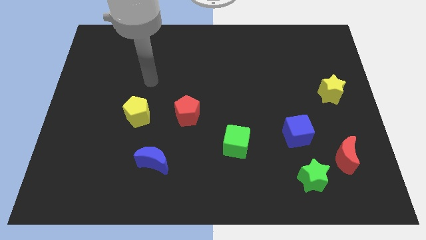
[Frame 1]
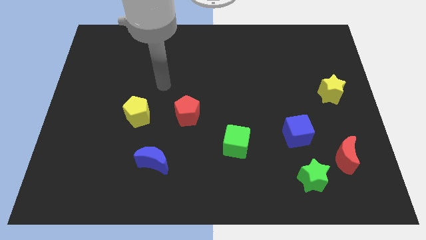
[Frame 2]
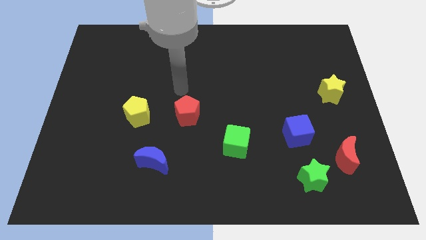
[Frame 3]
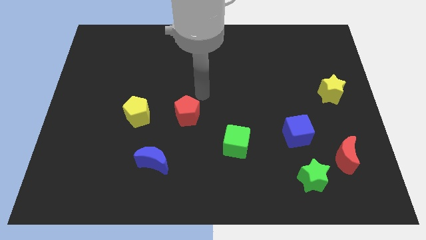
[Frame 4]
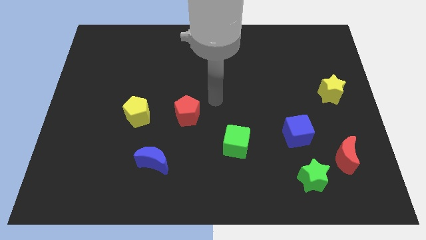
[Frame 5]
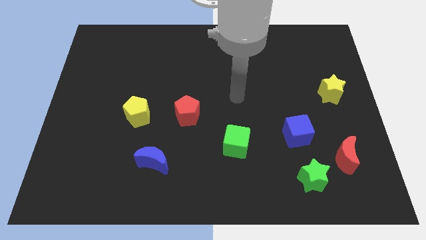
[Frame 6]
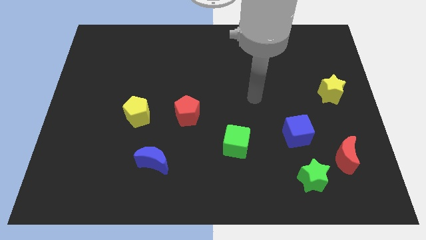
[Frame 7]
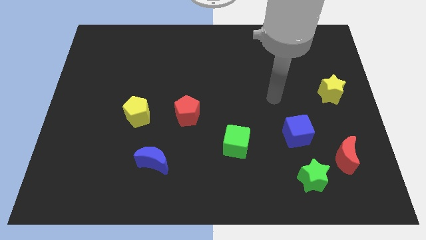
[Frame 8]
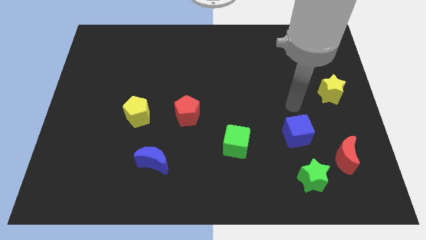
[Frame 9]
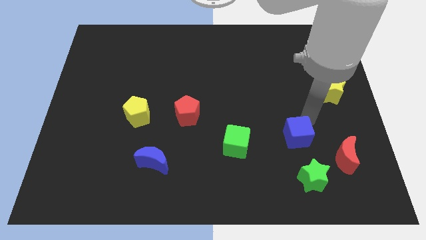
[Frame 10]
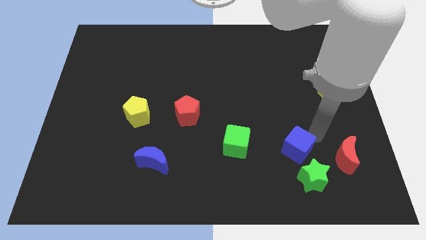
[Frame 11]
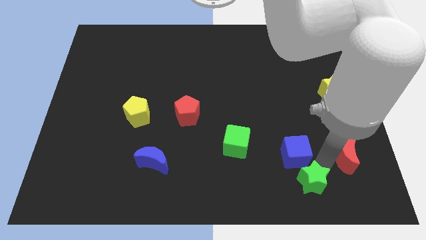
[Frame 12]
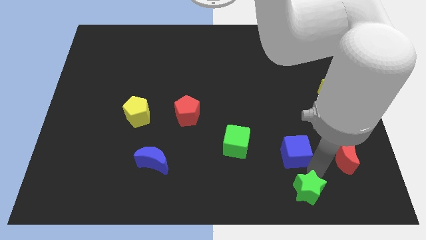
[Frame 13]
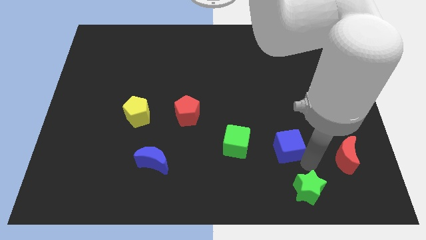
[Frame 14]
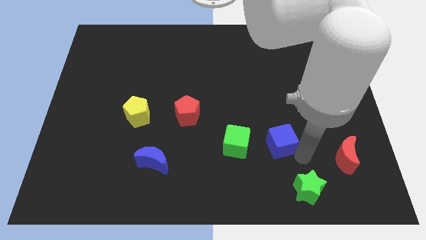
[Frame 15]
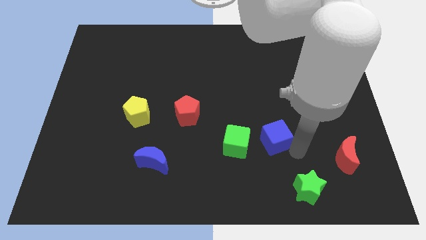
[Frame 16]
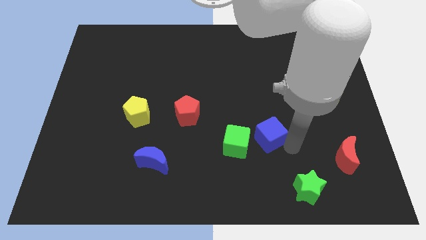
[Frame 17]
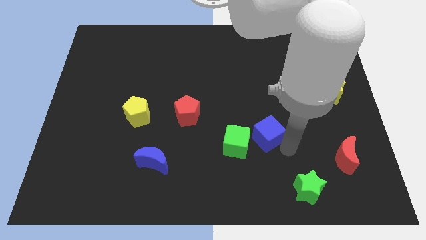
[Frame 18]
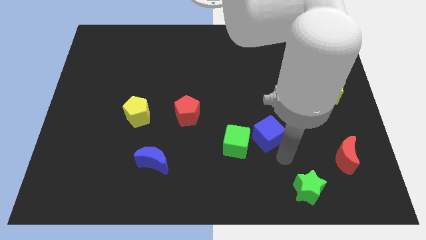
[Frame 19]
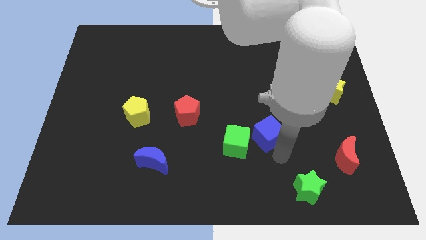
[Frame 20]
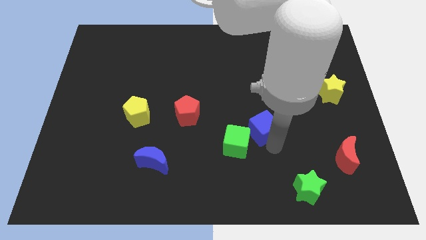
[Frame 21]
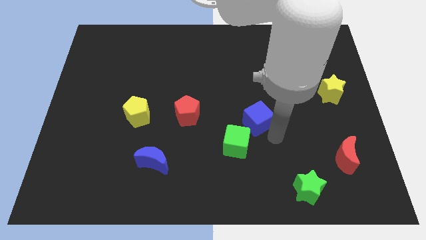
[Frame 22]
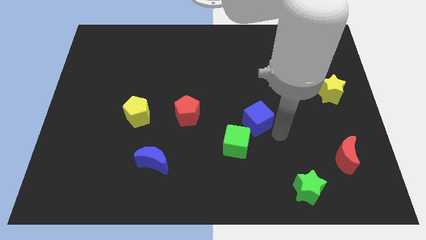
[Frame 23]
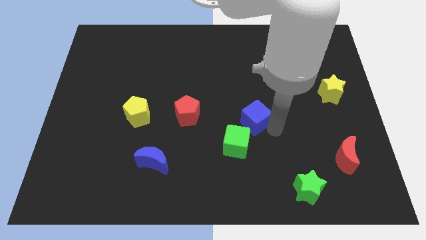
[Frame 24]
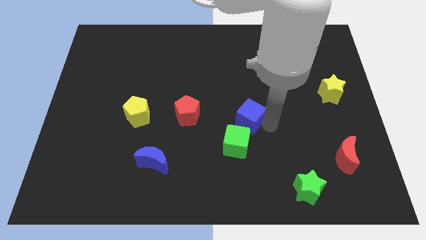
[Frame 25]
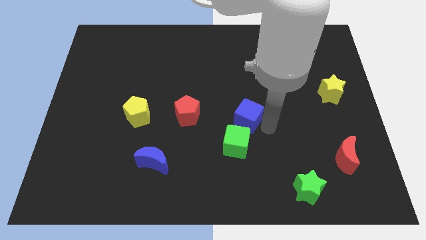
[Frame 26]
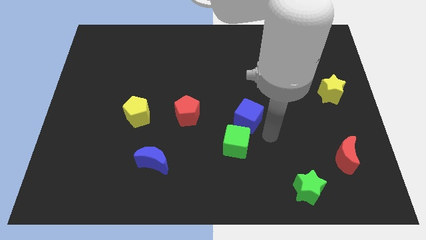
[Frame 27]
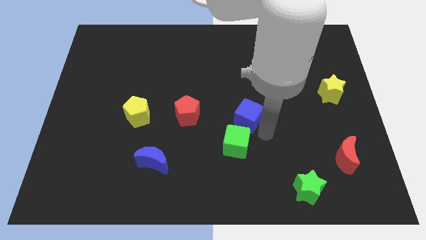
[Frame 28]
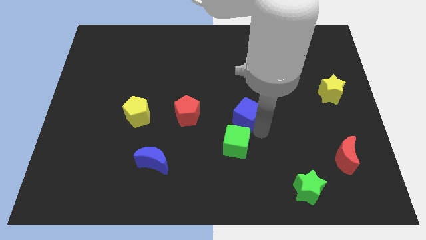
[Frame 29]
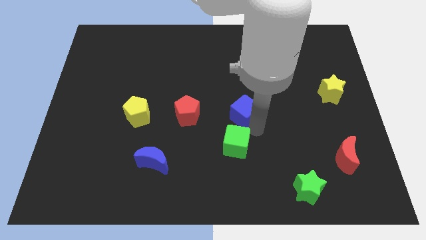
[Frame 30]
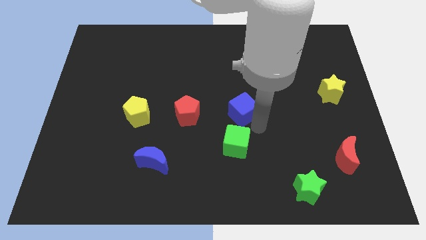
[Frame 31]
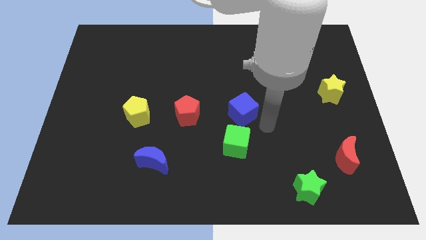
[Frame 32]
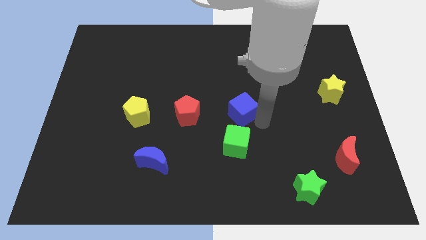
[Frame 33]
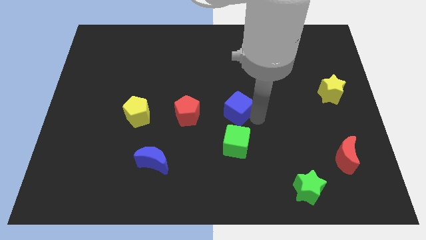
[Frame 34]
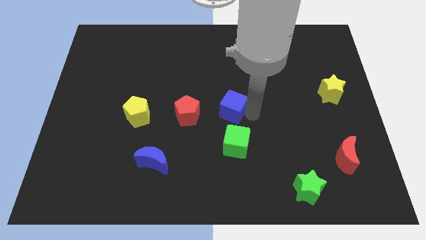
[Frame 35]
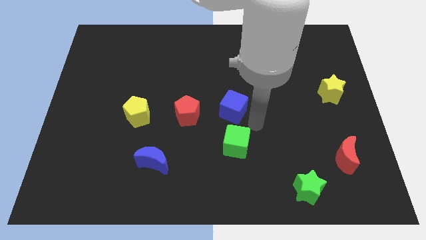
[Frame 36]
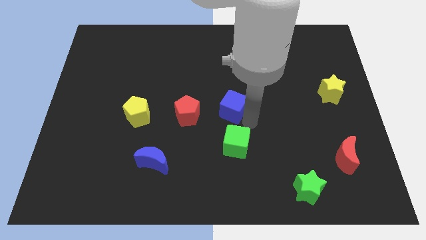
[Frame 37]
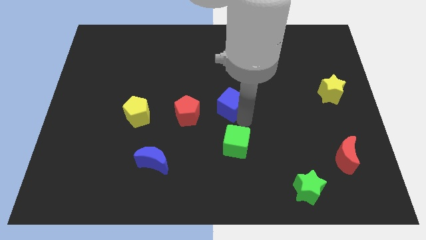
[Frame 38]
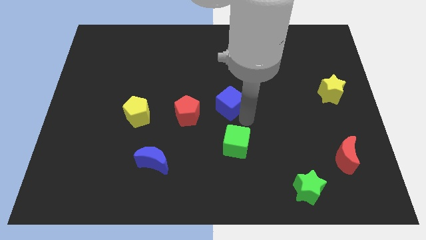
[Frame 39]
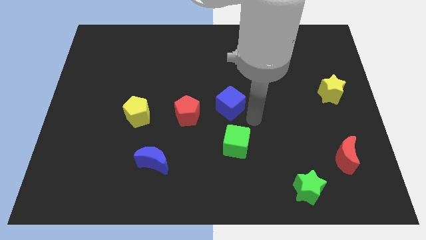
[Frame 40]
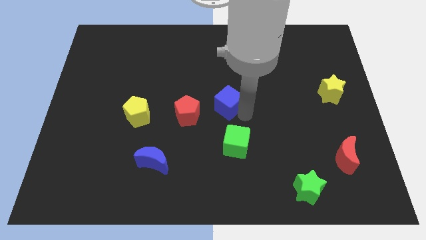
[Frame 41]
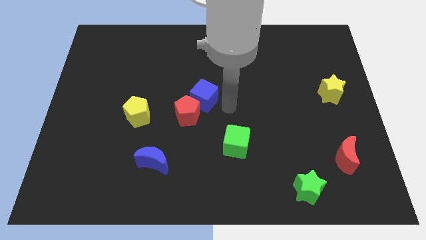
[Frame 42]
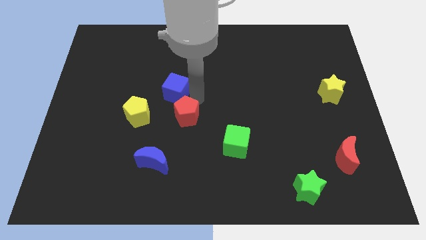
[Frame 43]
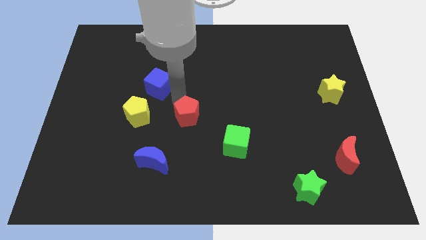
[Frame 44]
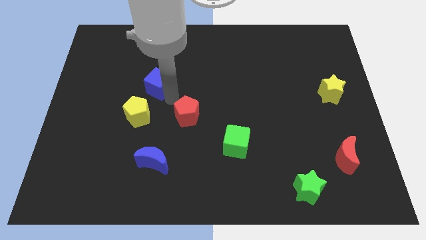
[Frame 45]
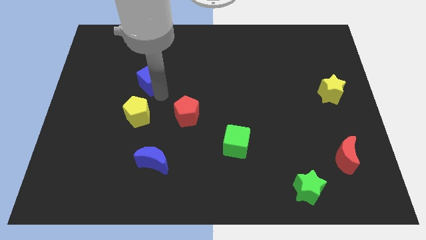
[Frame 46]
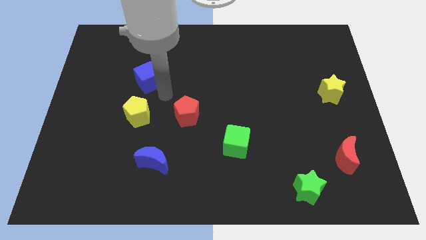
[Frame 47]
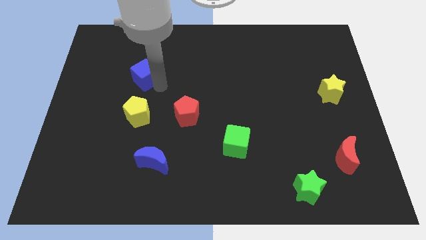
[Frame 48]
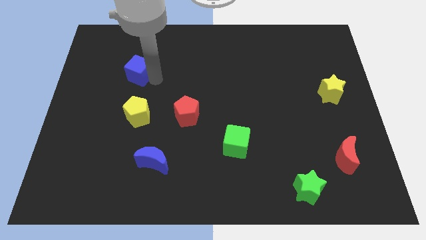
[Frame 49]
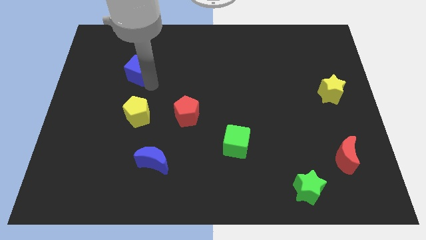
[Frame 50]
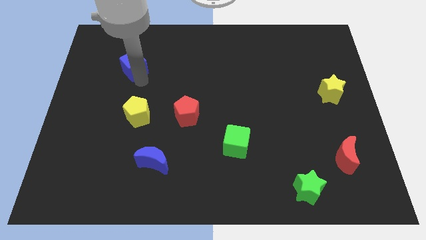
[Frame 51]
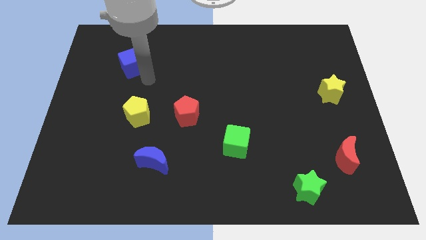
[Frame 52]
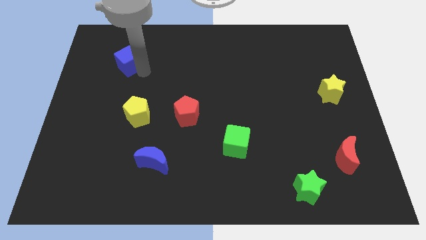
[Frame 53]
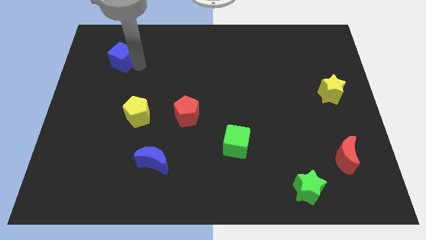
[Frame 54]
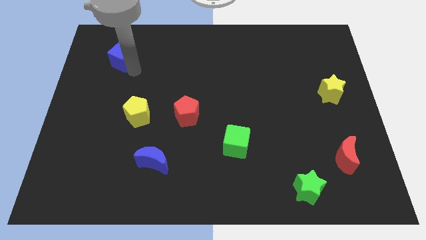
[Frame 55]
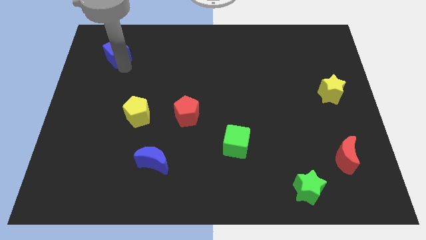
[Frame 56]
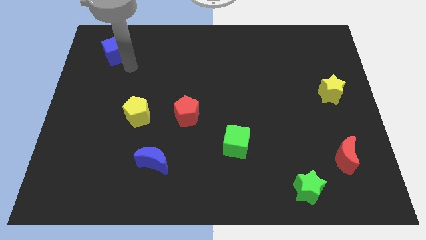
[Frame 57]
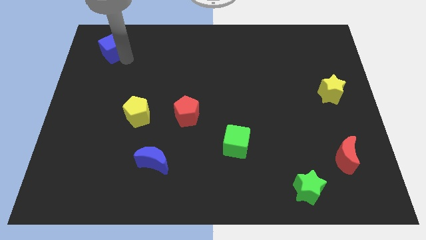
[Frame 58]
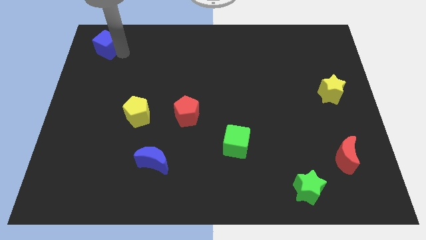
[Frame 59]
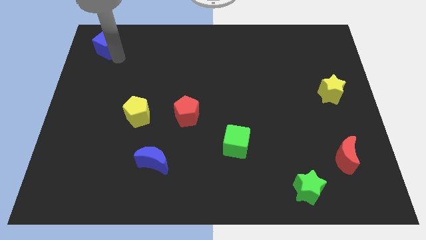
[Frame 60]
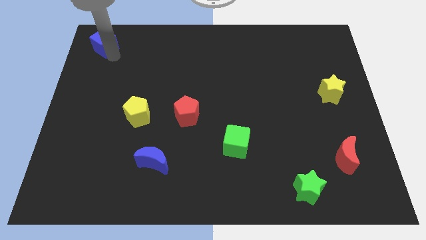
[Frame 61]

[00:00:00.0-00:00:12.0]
push the blue cube to the top left of the board

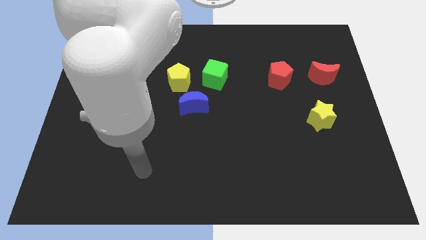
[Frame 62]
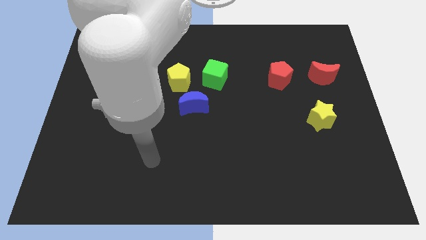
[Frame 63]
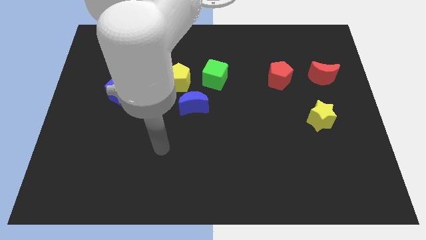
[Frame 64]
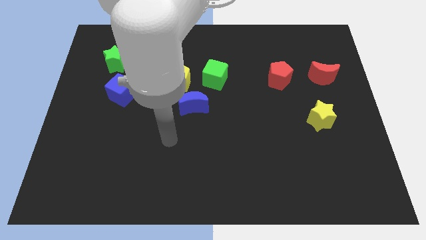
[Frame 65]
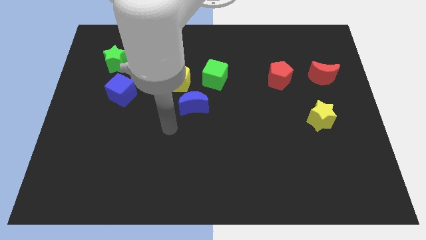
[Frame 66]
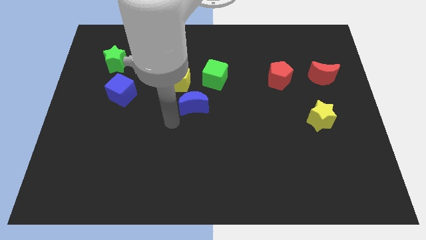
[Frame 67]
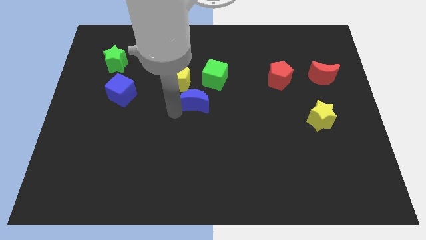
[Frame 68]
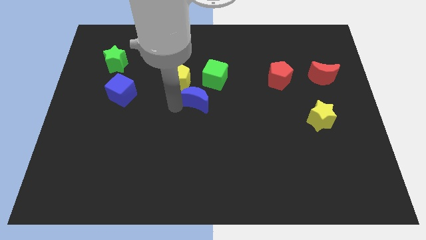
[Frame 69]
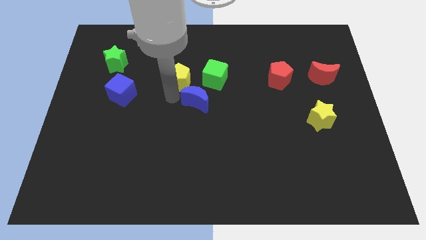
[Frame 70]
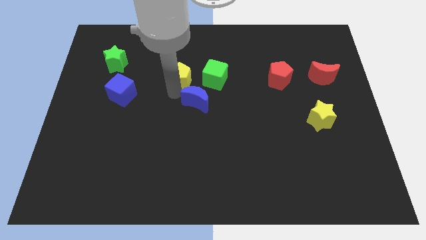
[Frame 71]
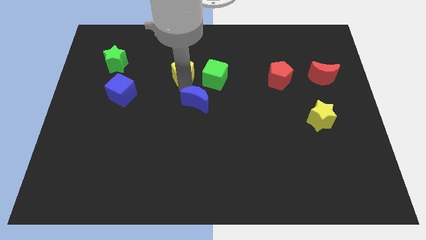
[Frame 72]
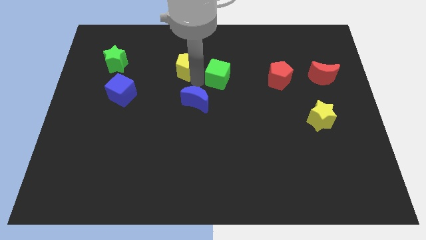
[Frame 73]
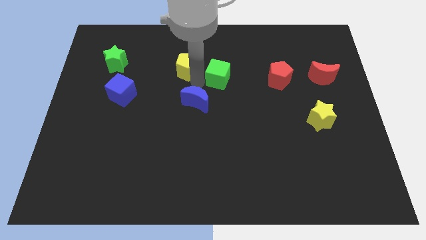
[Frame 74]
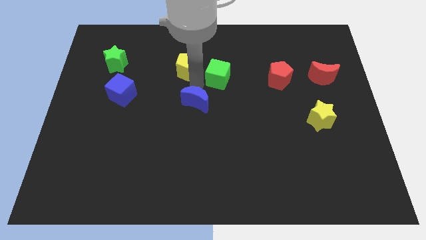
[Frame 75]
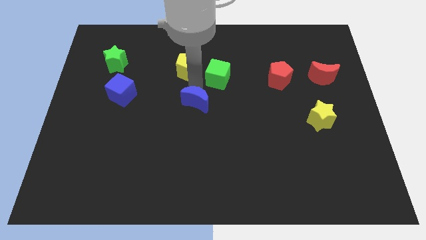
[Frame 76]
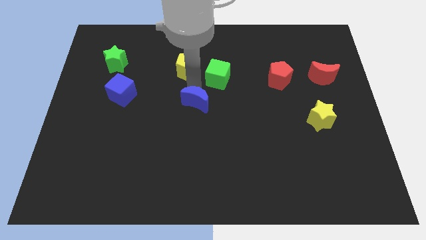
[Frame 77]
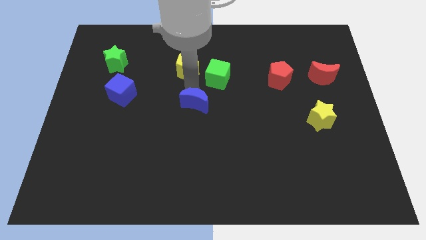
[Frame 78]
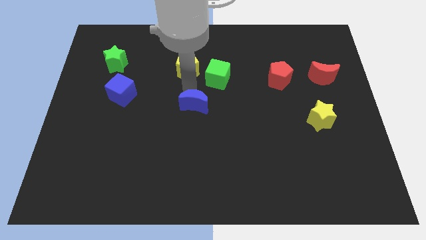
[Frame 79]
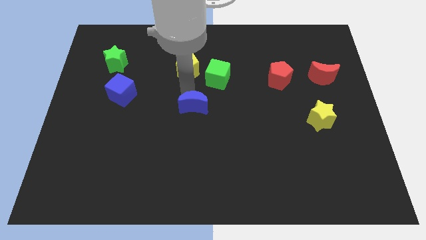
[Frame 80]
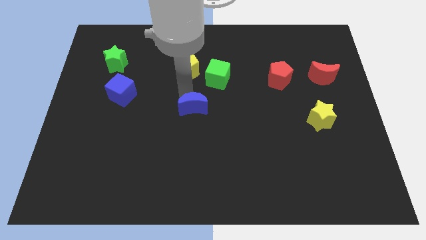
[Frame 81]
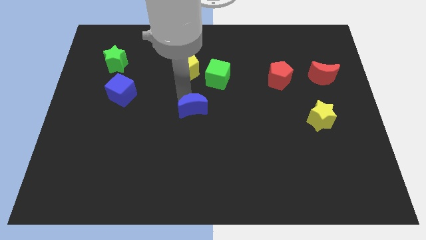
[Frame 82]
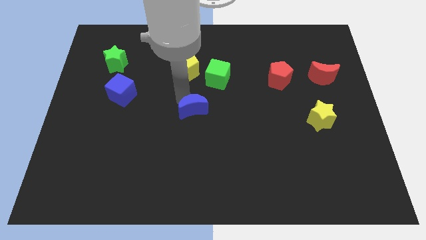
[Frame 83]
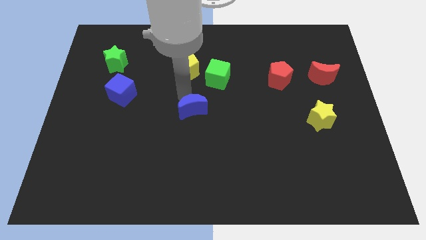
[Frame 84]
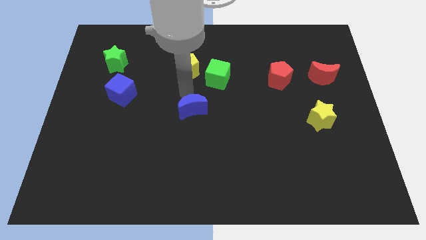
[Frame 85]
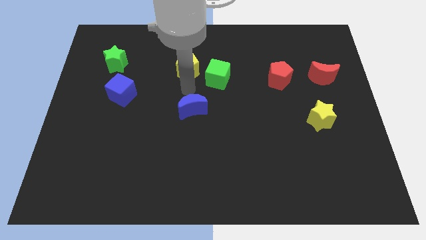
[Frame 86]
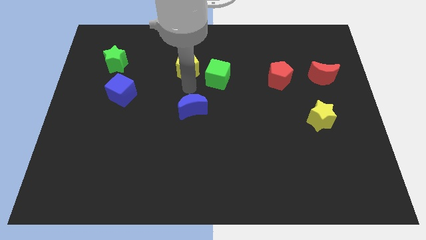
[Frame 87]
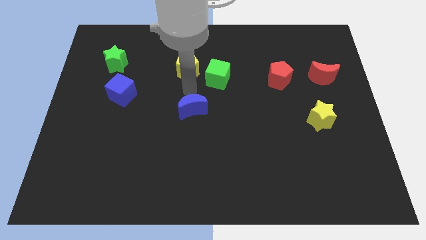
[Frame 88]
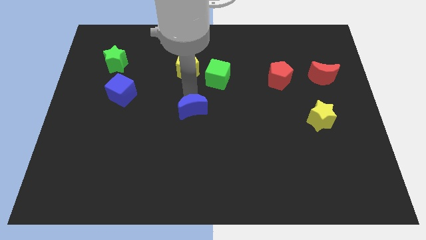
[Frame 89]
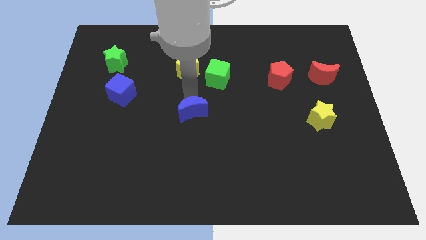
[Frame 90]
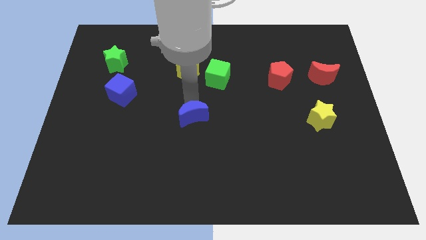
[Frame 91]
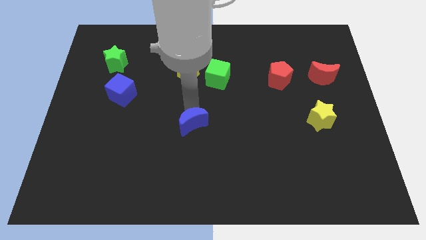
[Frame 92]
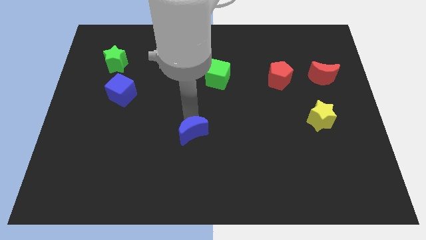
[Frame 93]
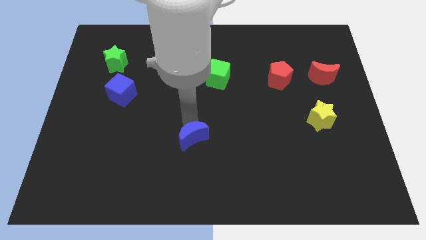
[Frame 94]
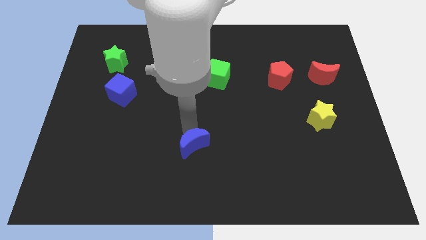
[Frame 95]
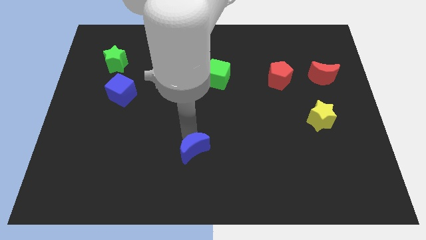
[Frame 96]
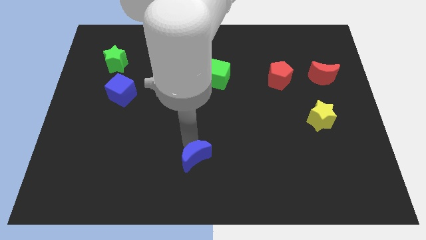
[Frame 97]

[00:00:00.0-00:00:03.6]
push the blue moon to the bottom
